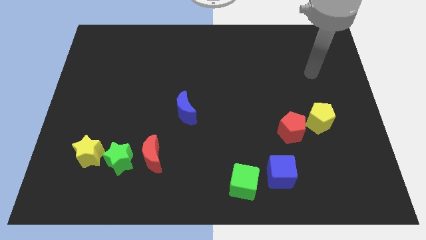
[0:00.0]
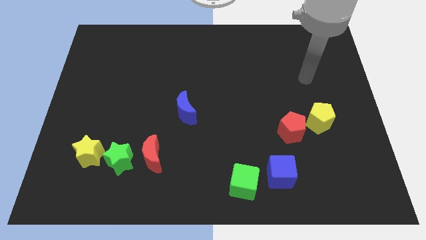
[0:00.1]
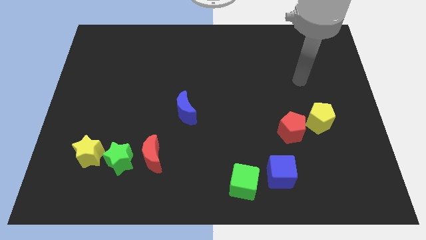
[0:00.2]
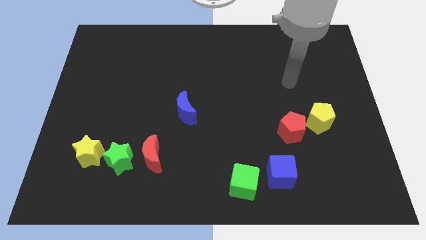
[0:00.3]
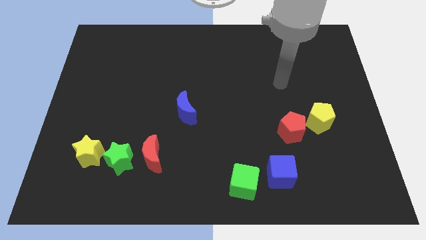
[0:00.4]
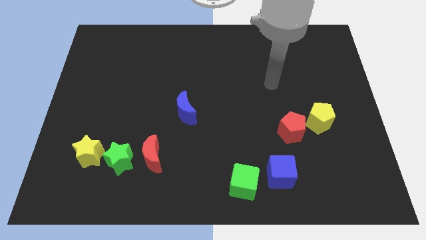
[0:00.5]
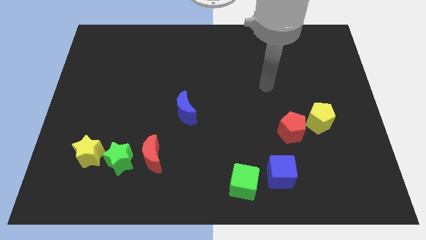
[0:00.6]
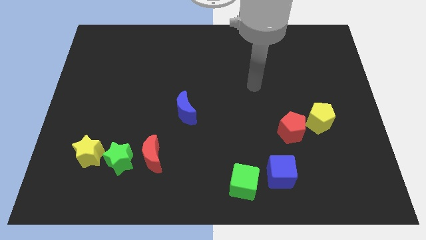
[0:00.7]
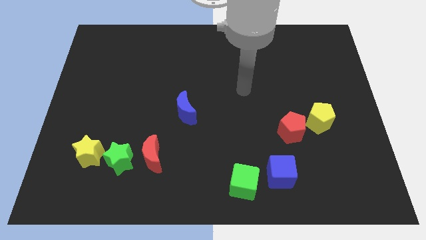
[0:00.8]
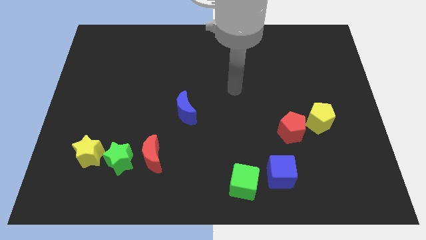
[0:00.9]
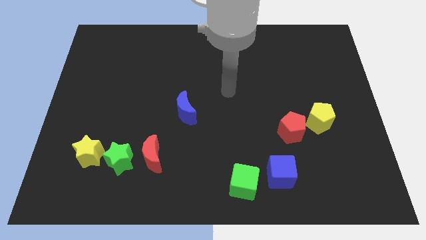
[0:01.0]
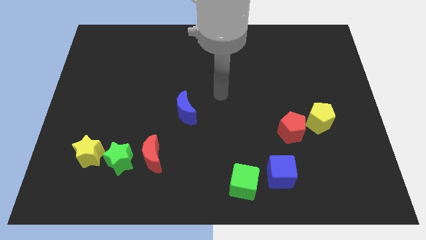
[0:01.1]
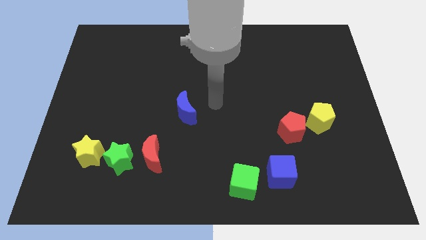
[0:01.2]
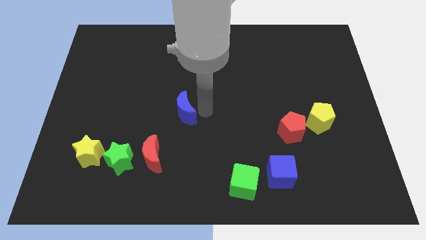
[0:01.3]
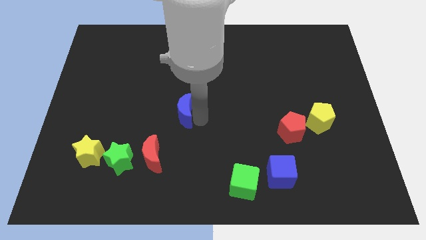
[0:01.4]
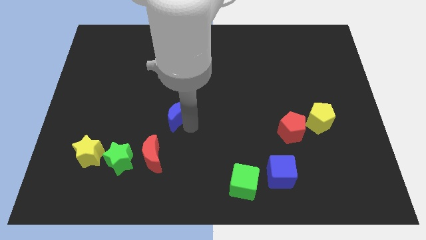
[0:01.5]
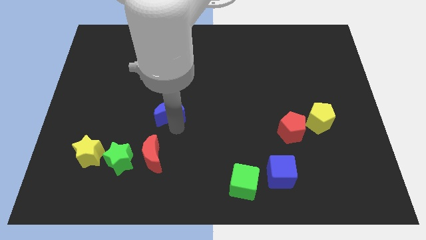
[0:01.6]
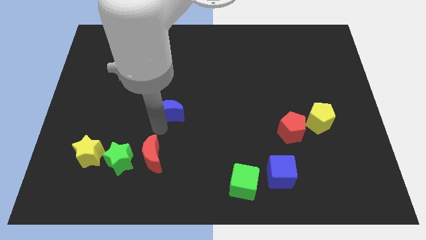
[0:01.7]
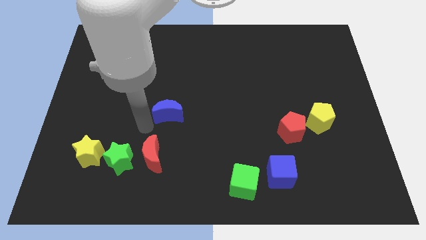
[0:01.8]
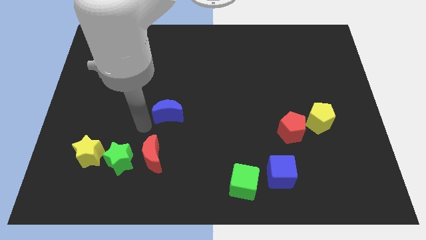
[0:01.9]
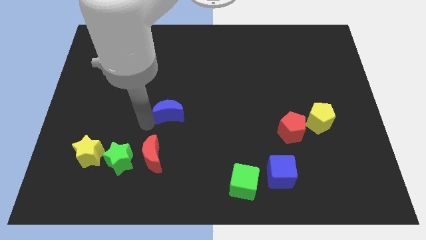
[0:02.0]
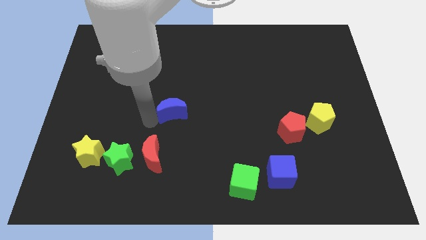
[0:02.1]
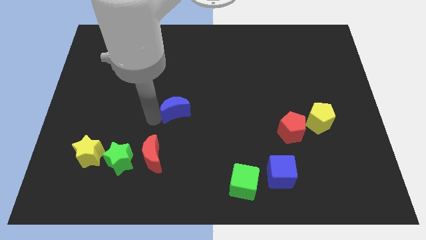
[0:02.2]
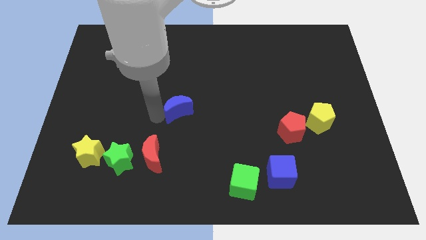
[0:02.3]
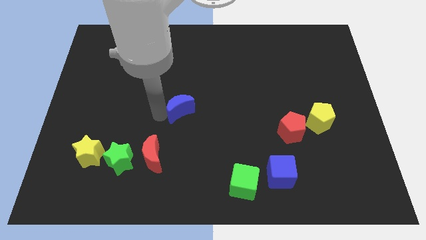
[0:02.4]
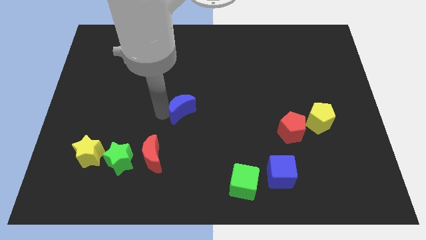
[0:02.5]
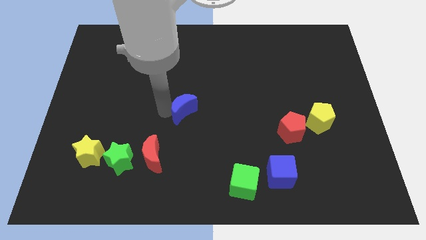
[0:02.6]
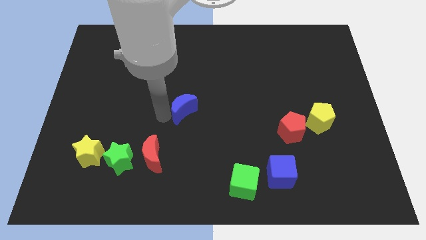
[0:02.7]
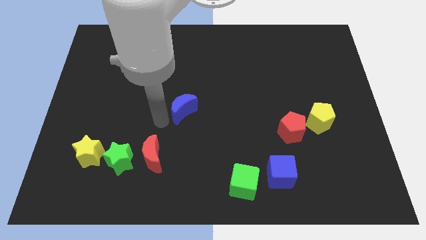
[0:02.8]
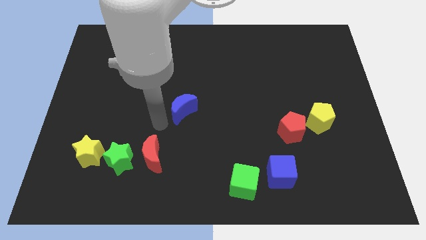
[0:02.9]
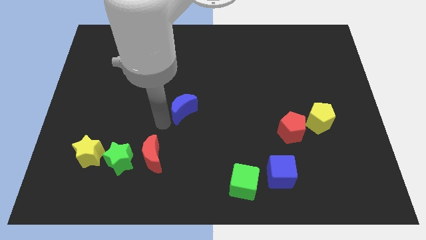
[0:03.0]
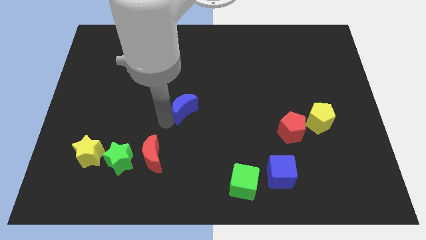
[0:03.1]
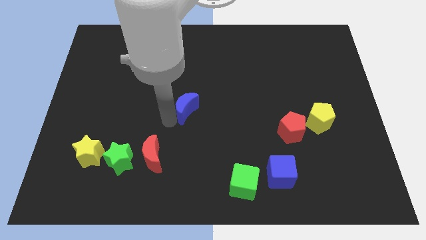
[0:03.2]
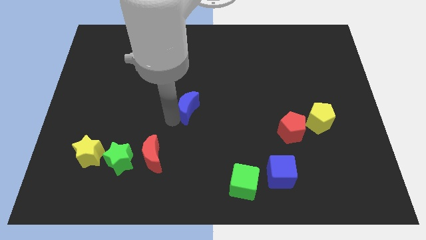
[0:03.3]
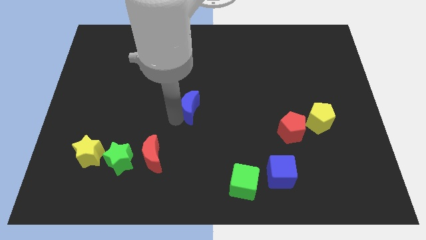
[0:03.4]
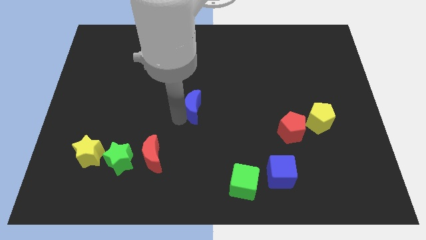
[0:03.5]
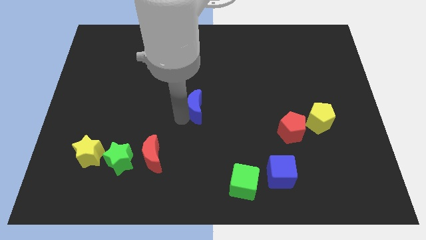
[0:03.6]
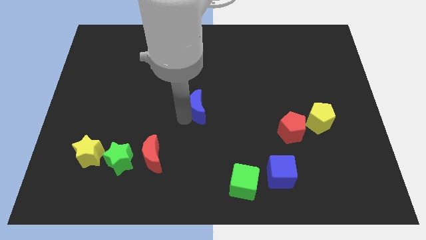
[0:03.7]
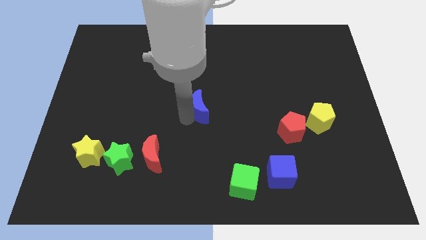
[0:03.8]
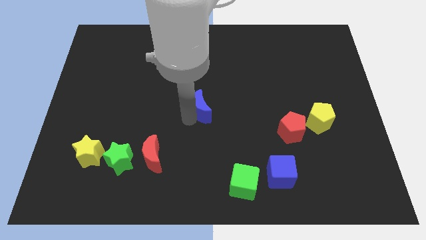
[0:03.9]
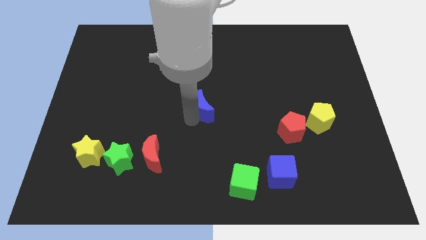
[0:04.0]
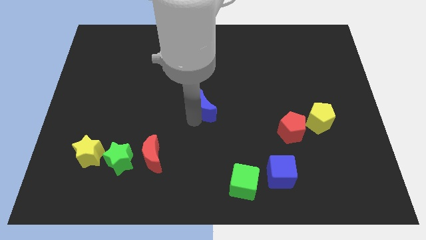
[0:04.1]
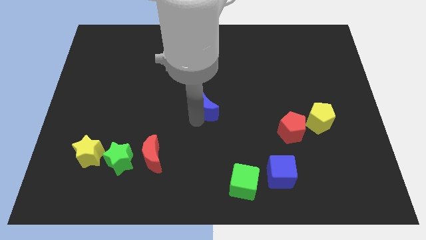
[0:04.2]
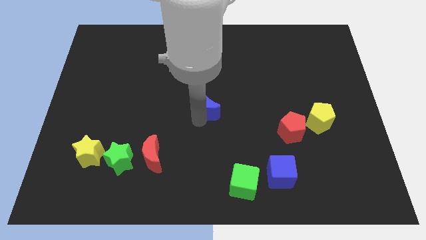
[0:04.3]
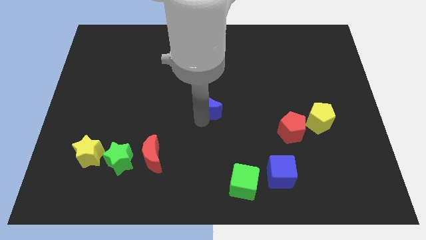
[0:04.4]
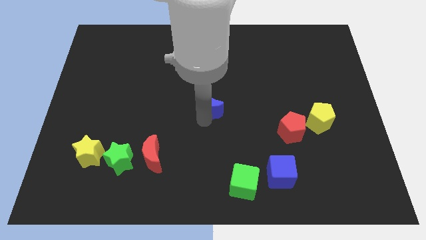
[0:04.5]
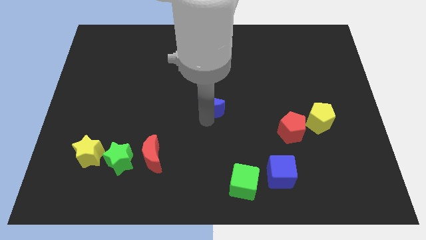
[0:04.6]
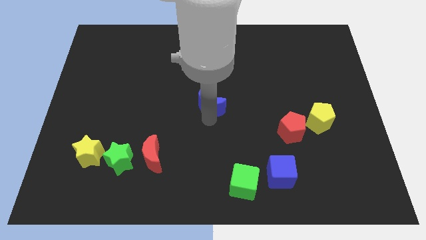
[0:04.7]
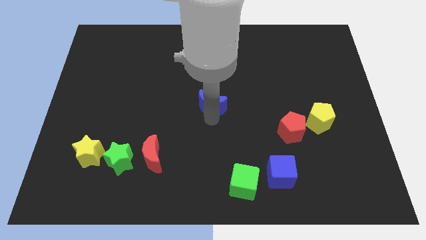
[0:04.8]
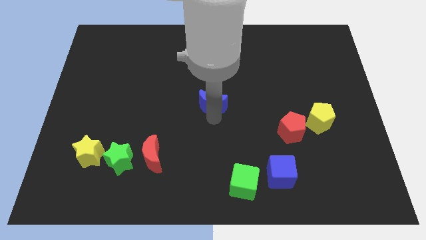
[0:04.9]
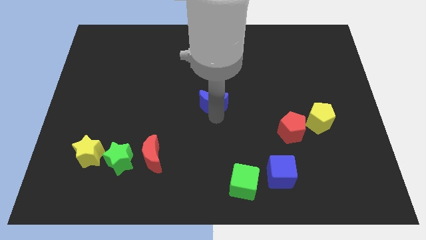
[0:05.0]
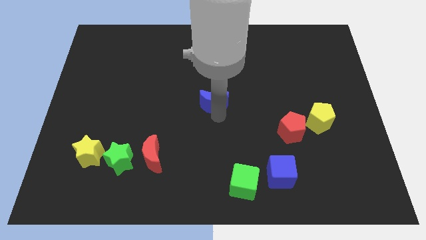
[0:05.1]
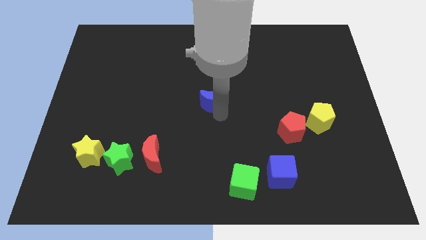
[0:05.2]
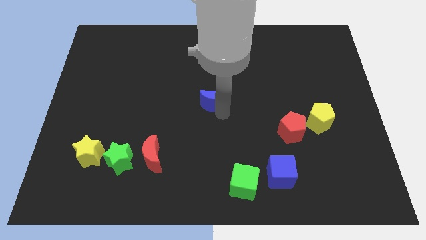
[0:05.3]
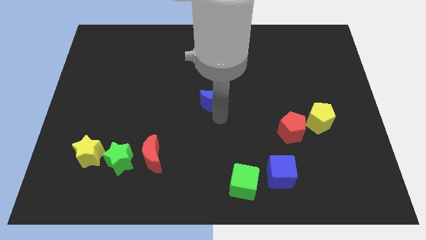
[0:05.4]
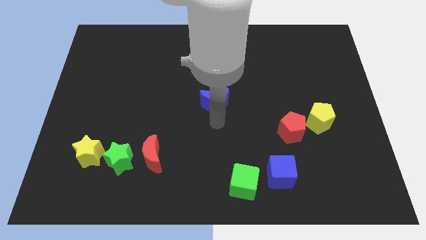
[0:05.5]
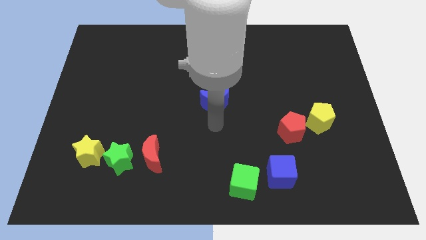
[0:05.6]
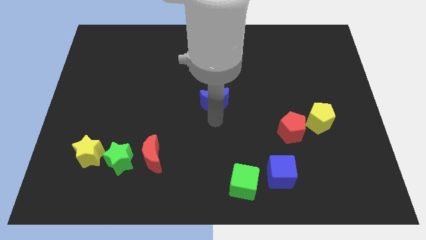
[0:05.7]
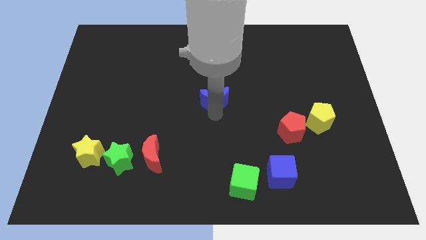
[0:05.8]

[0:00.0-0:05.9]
move the blue moon upwards and to the right a little bit

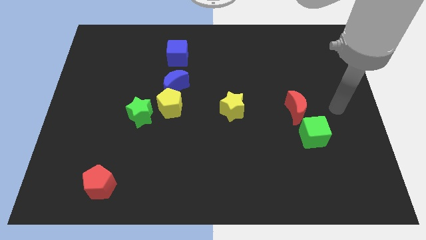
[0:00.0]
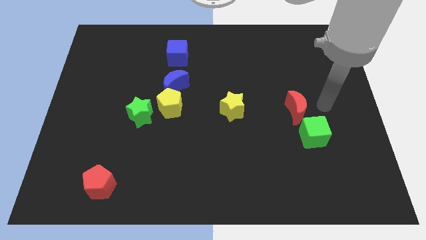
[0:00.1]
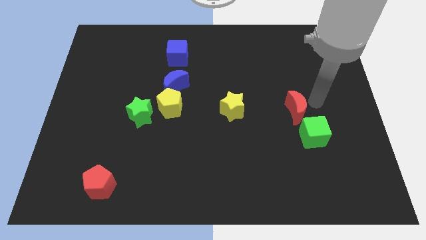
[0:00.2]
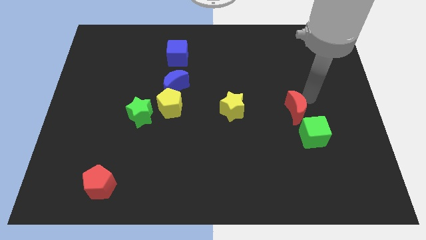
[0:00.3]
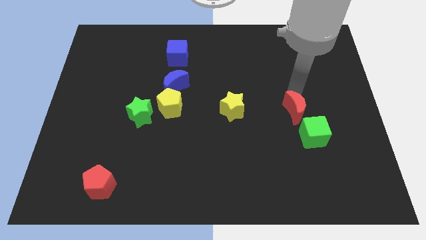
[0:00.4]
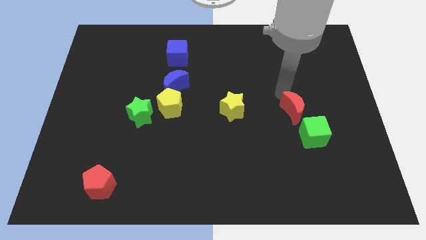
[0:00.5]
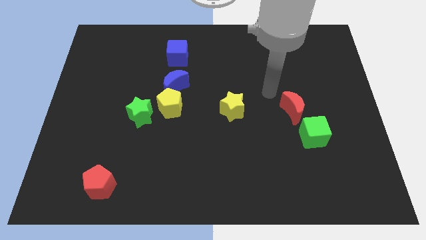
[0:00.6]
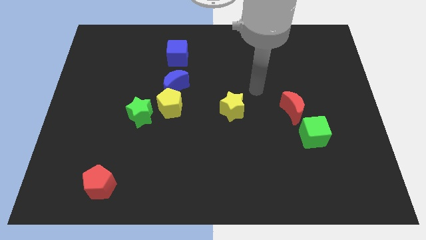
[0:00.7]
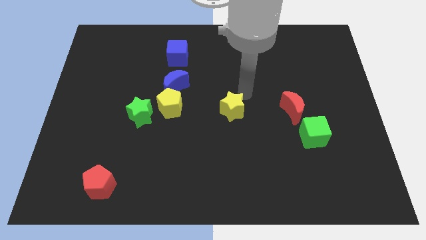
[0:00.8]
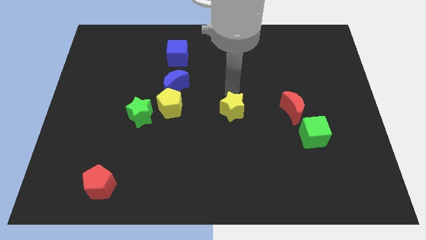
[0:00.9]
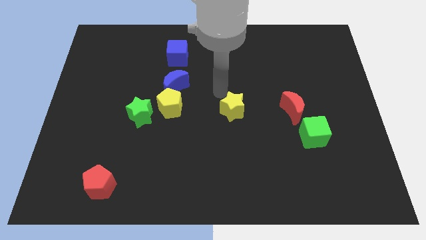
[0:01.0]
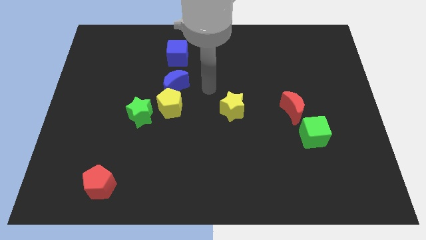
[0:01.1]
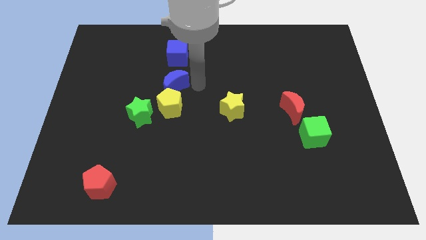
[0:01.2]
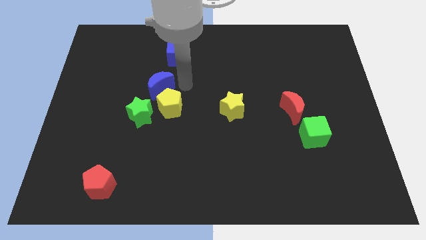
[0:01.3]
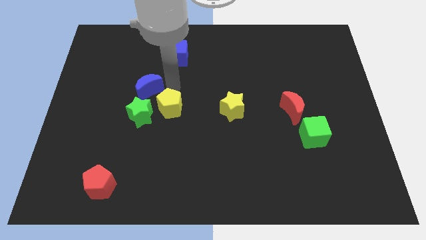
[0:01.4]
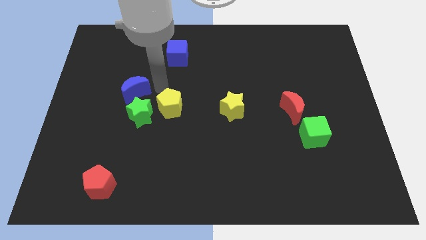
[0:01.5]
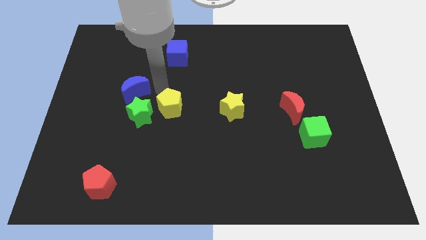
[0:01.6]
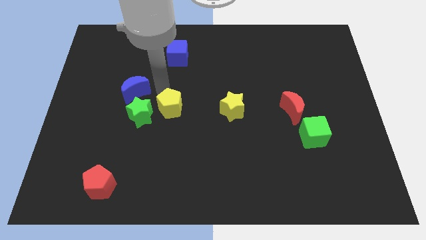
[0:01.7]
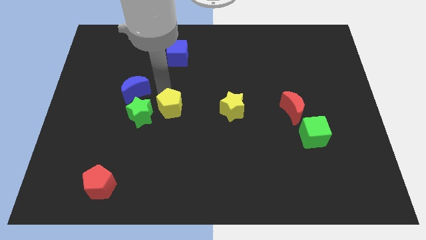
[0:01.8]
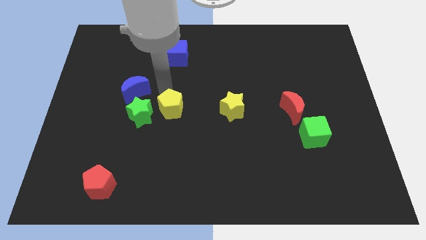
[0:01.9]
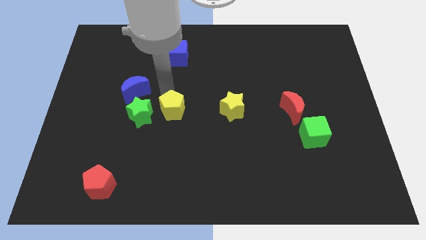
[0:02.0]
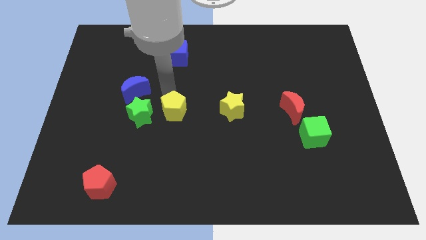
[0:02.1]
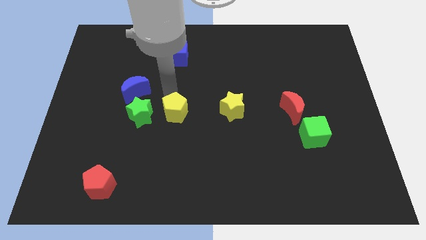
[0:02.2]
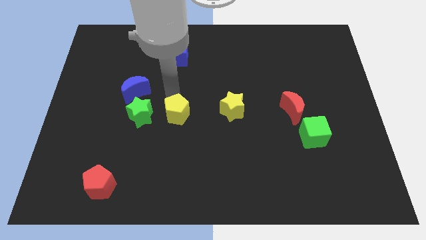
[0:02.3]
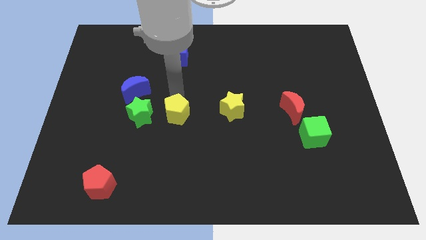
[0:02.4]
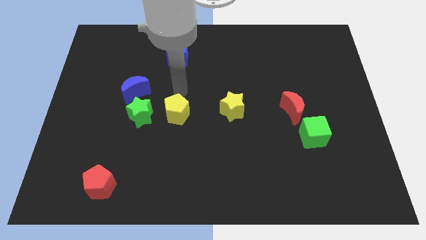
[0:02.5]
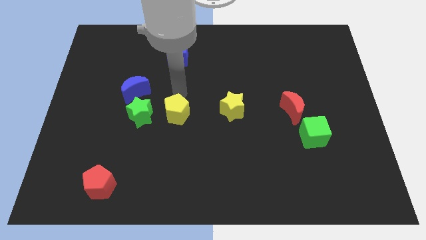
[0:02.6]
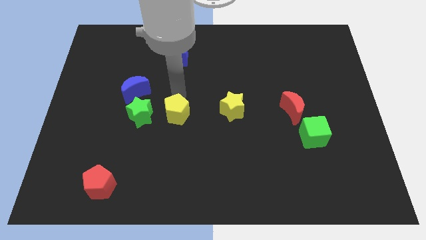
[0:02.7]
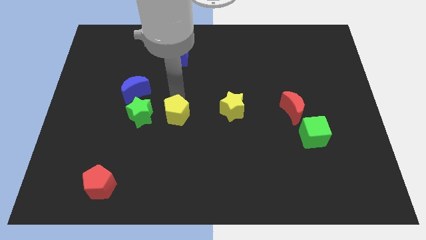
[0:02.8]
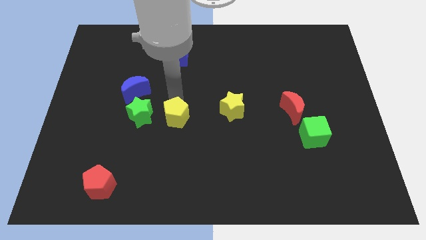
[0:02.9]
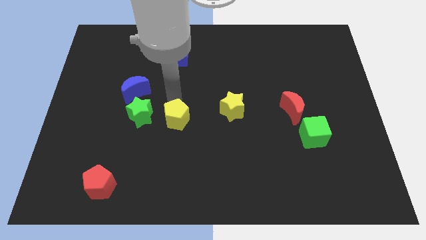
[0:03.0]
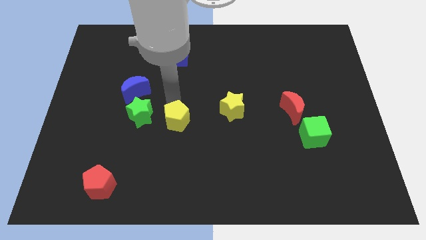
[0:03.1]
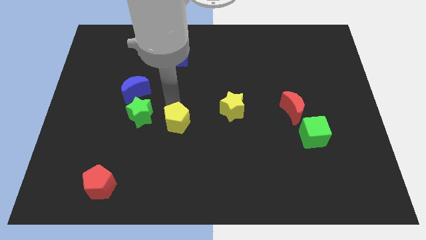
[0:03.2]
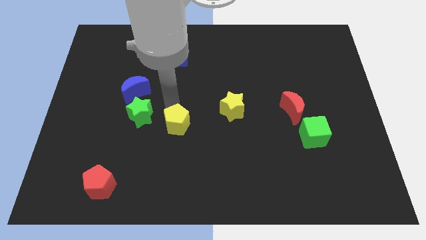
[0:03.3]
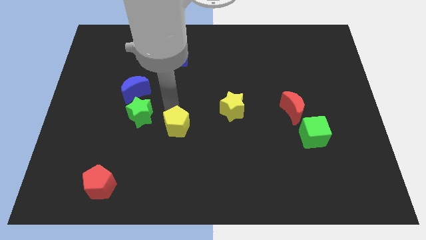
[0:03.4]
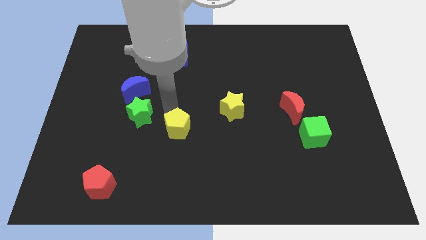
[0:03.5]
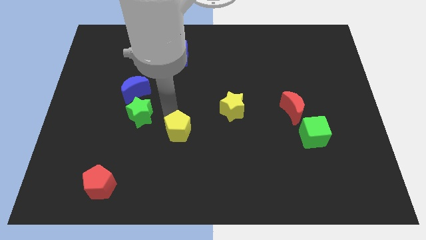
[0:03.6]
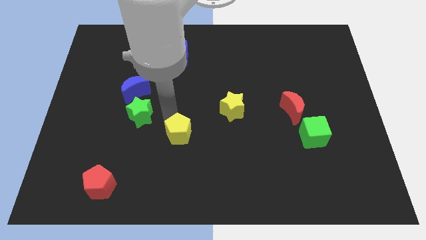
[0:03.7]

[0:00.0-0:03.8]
move the yellow pentagon slightly down
